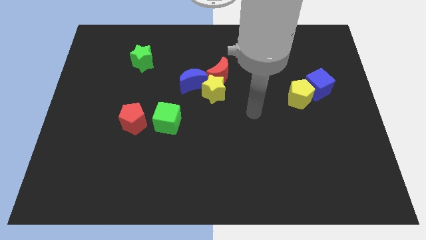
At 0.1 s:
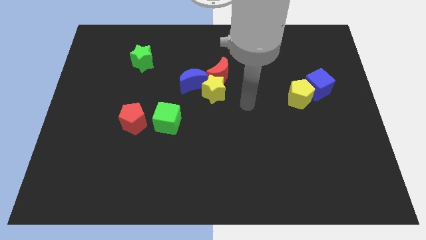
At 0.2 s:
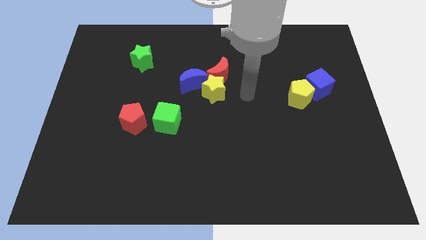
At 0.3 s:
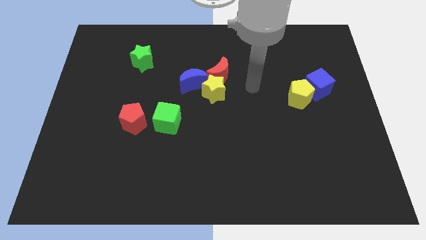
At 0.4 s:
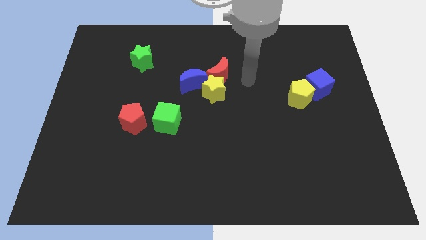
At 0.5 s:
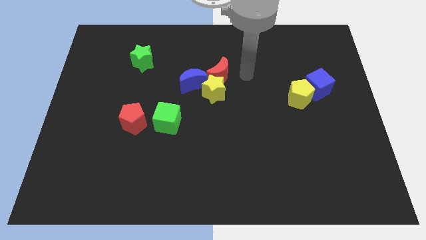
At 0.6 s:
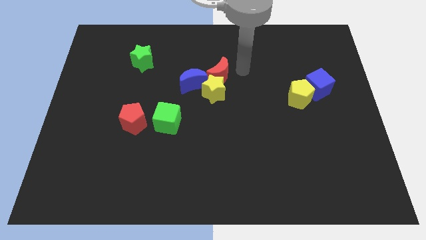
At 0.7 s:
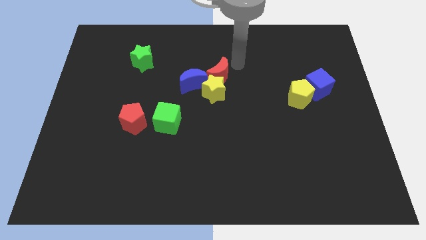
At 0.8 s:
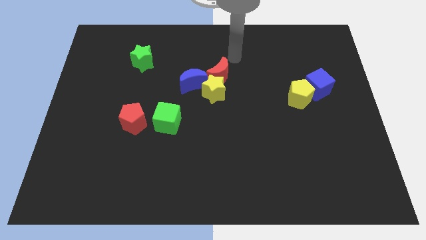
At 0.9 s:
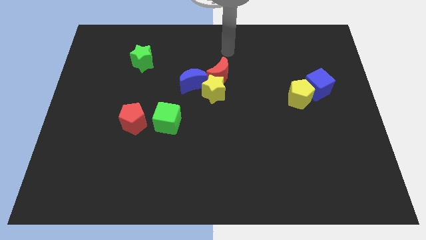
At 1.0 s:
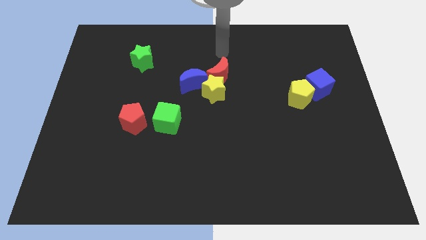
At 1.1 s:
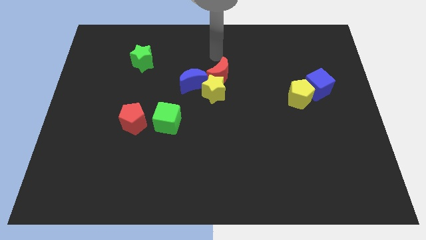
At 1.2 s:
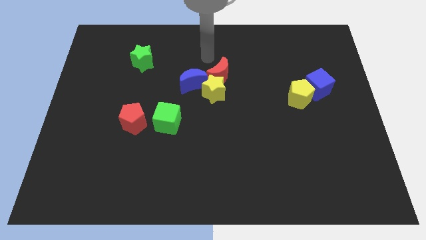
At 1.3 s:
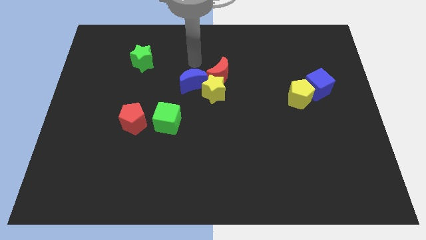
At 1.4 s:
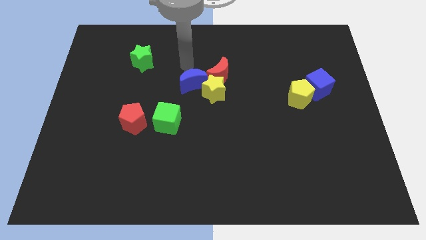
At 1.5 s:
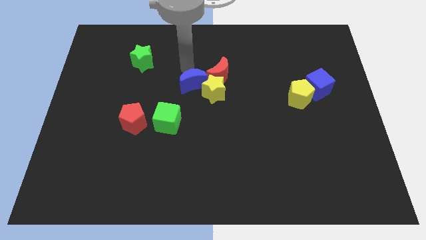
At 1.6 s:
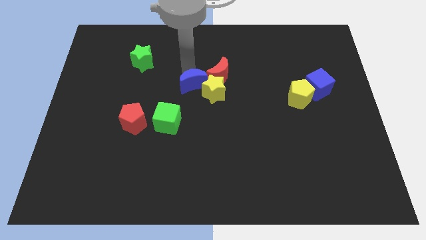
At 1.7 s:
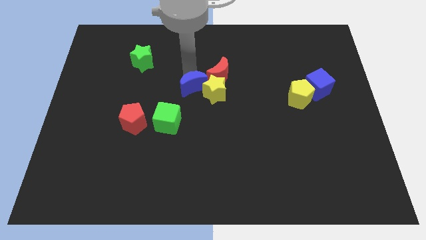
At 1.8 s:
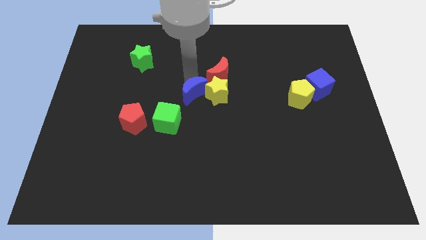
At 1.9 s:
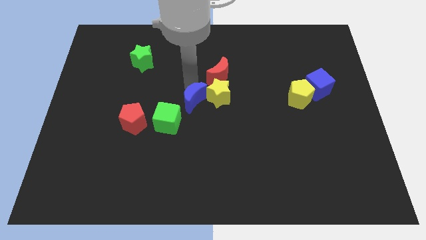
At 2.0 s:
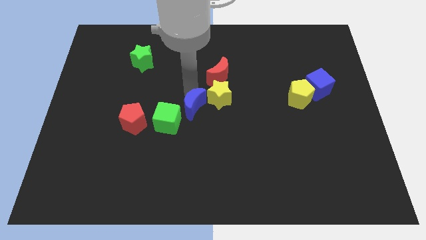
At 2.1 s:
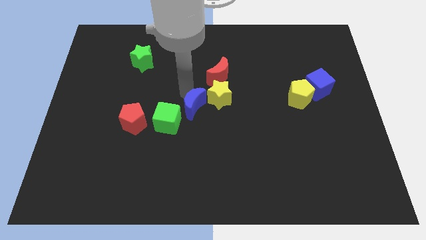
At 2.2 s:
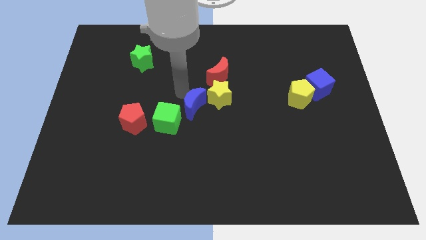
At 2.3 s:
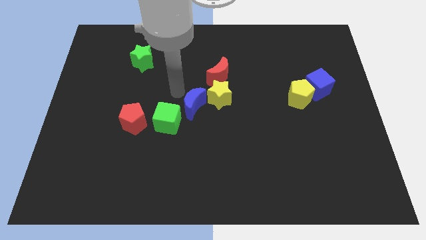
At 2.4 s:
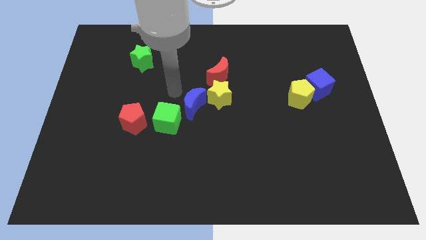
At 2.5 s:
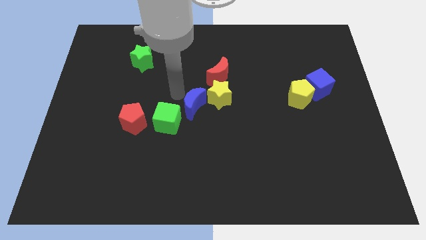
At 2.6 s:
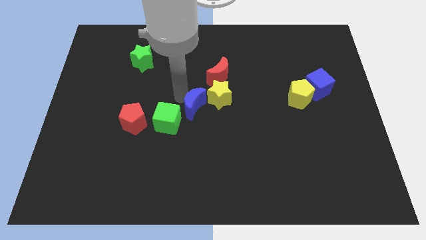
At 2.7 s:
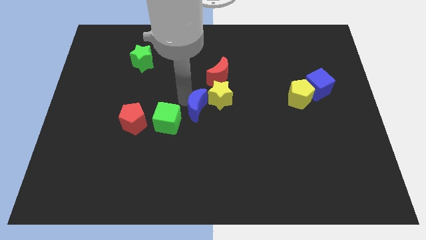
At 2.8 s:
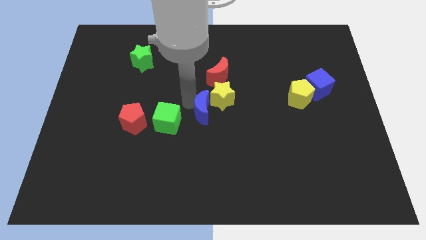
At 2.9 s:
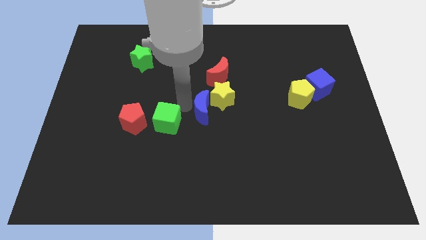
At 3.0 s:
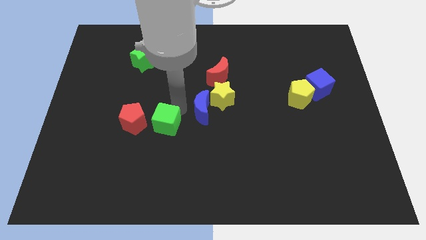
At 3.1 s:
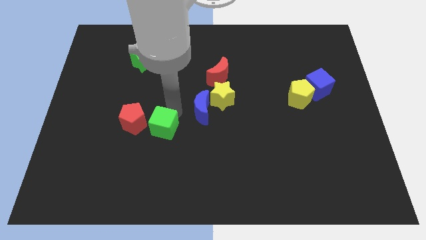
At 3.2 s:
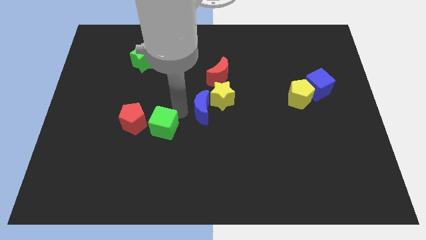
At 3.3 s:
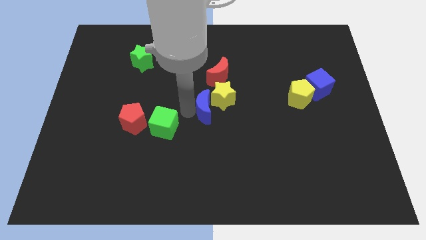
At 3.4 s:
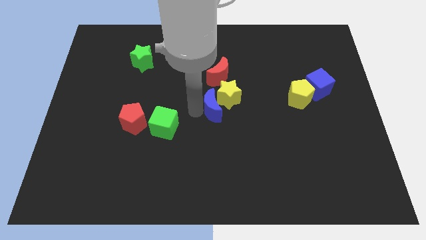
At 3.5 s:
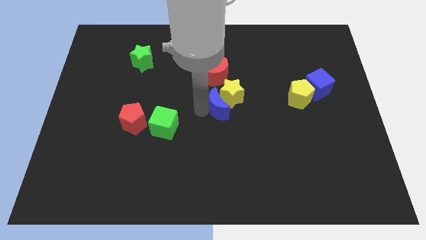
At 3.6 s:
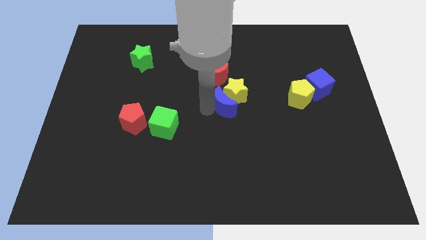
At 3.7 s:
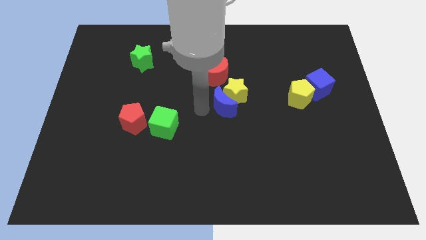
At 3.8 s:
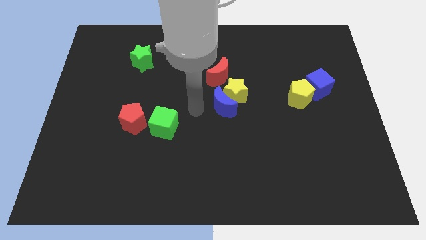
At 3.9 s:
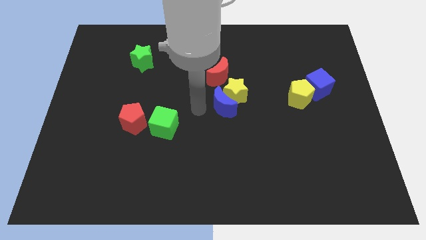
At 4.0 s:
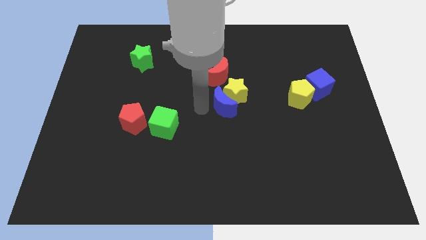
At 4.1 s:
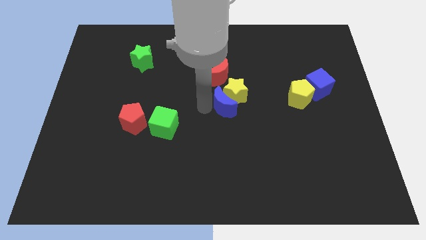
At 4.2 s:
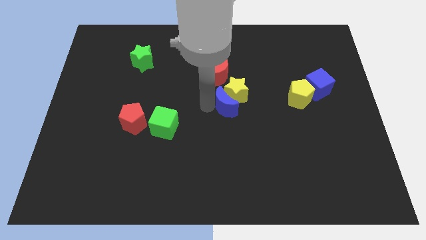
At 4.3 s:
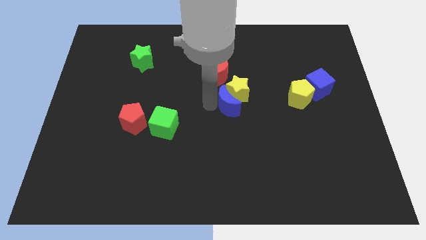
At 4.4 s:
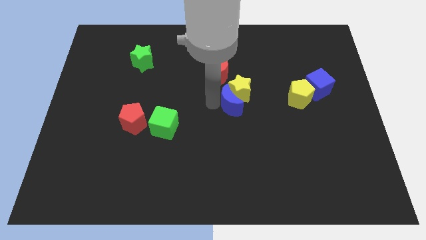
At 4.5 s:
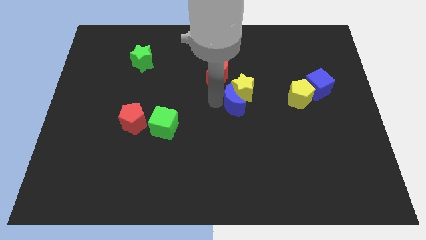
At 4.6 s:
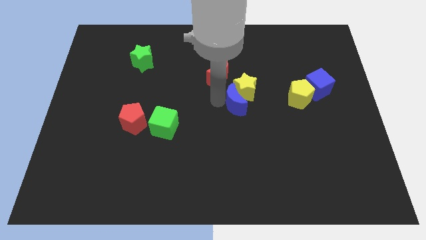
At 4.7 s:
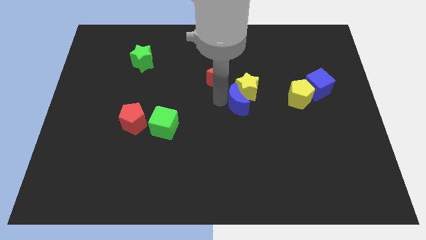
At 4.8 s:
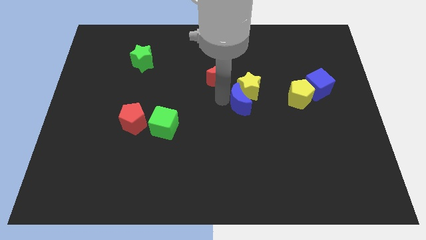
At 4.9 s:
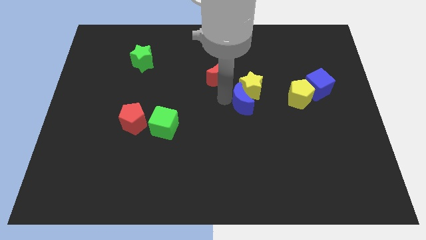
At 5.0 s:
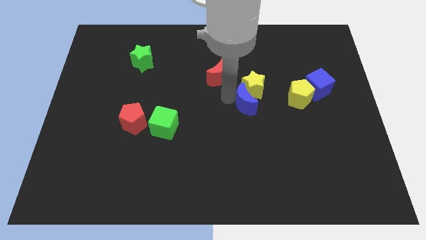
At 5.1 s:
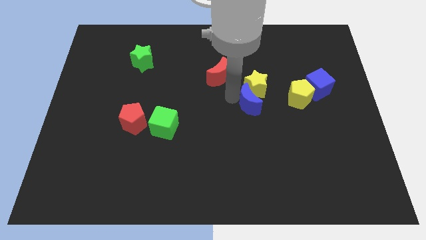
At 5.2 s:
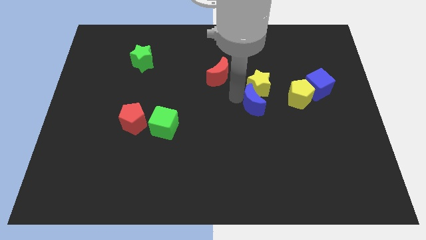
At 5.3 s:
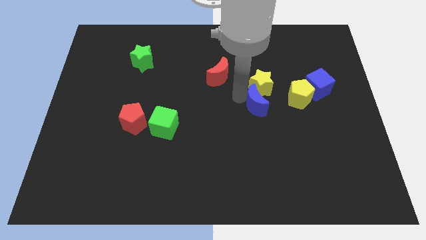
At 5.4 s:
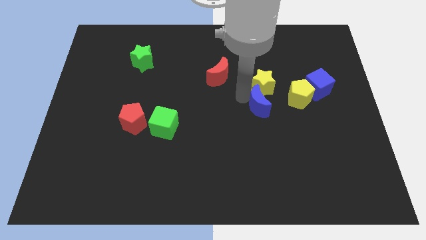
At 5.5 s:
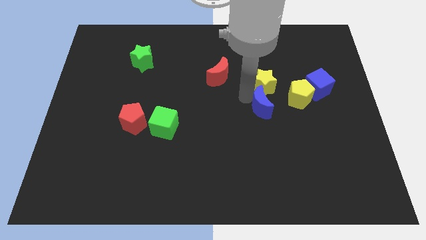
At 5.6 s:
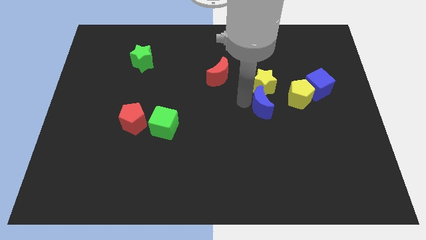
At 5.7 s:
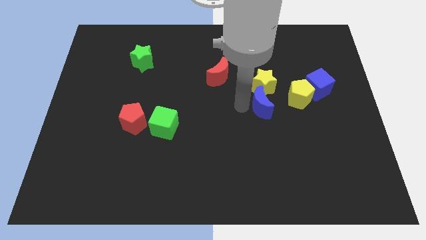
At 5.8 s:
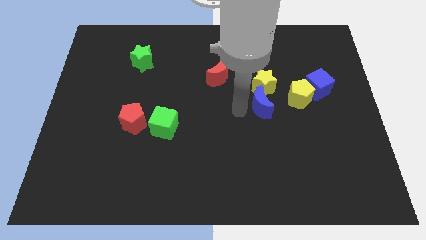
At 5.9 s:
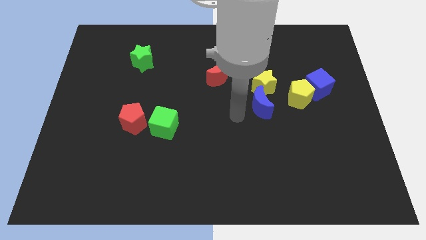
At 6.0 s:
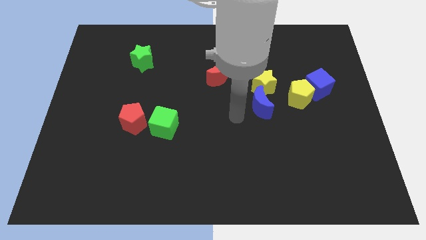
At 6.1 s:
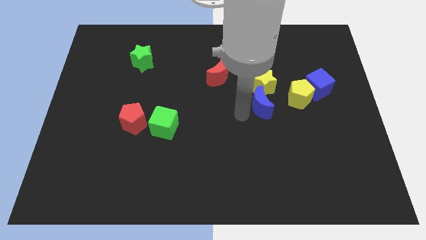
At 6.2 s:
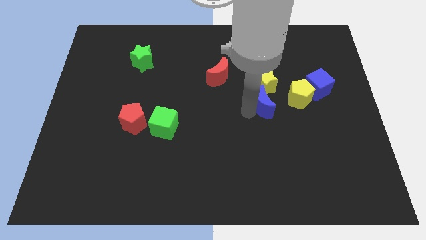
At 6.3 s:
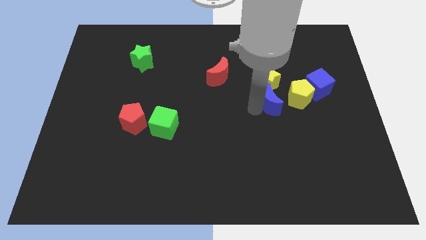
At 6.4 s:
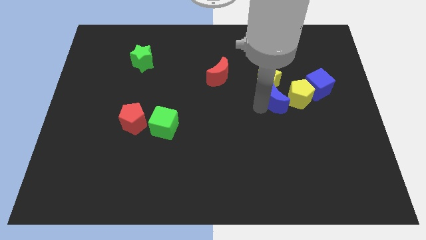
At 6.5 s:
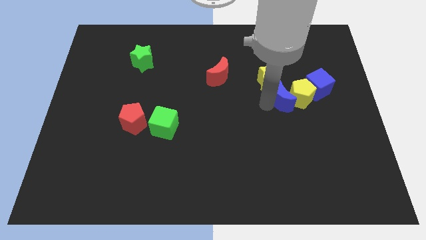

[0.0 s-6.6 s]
put the blue moon towards the yellow pentagon
